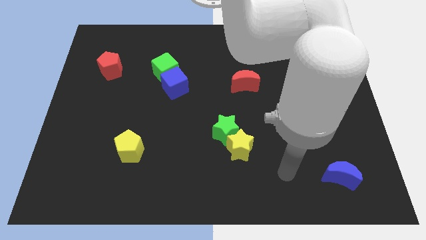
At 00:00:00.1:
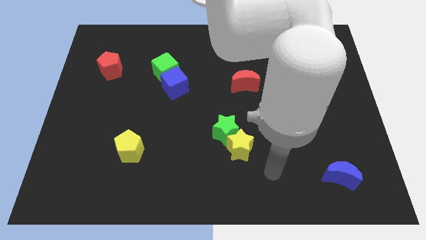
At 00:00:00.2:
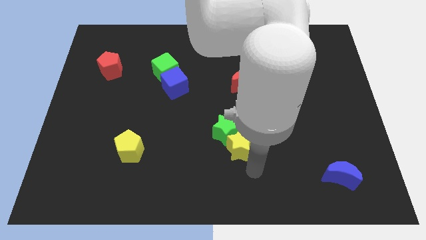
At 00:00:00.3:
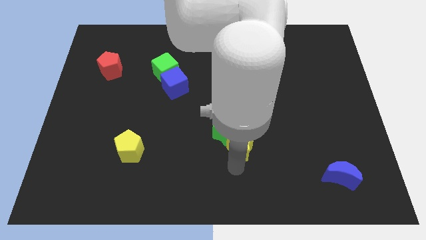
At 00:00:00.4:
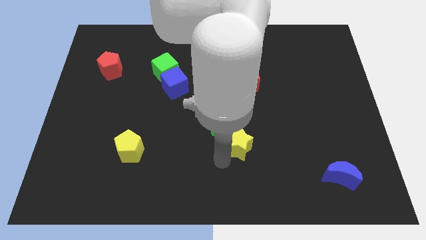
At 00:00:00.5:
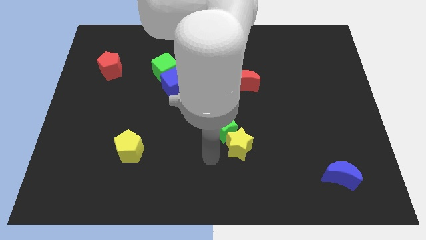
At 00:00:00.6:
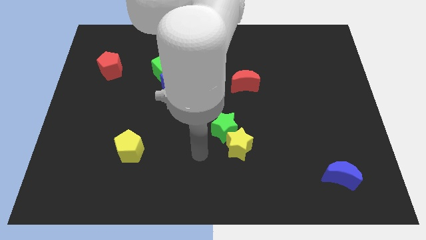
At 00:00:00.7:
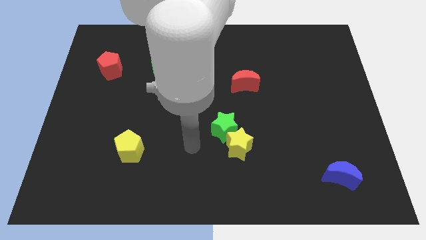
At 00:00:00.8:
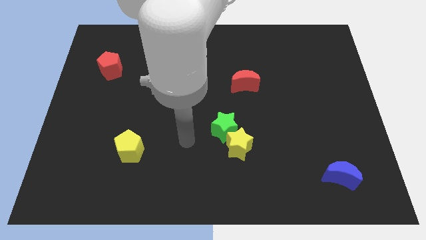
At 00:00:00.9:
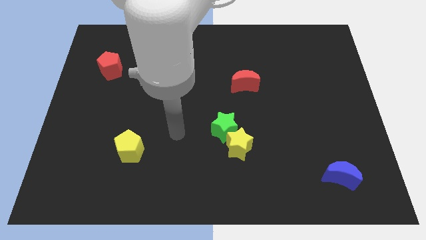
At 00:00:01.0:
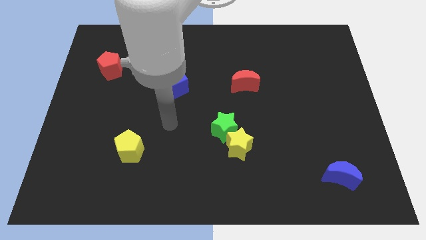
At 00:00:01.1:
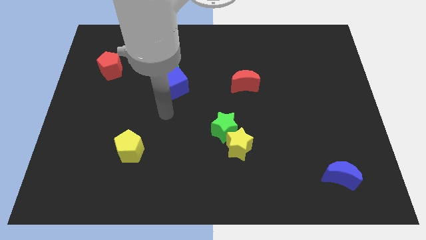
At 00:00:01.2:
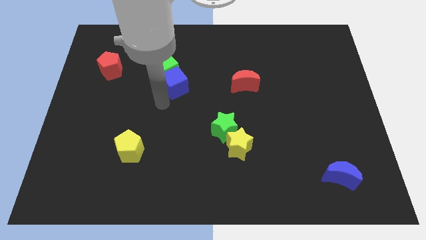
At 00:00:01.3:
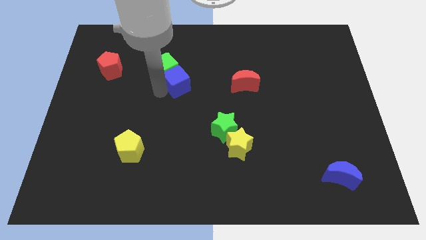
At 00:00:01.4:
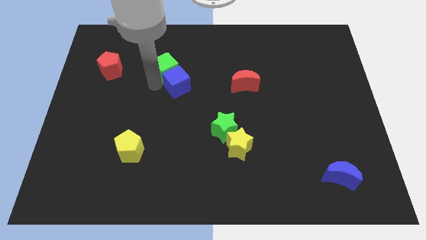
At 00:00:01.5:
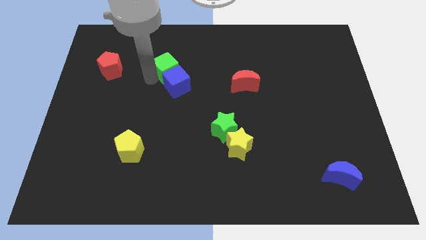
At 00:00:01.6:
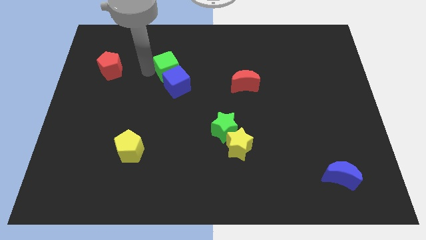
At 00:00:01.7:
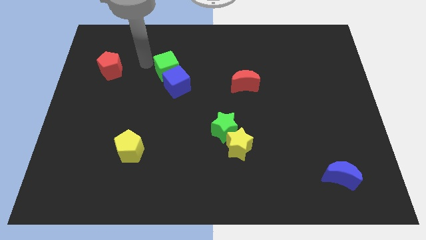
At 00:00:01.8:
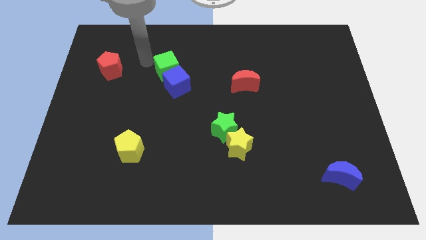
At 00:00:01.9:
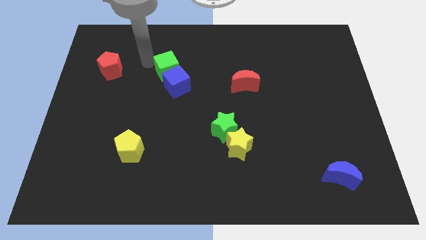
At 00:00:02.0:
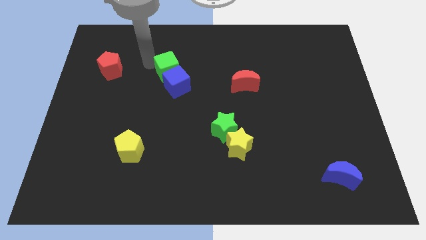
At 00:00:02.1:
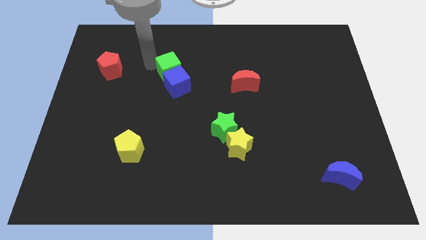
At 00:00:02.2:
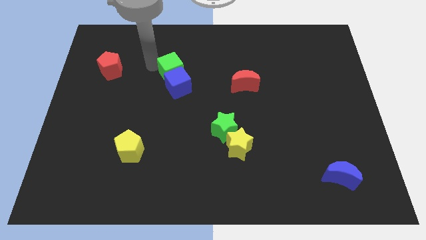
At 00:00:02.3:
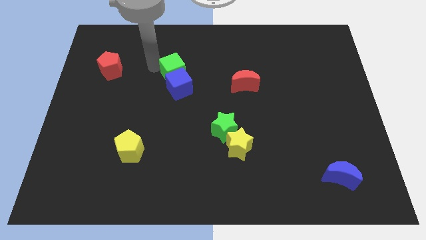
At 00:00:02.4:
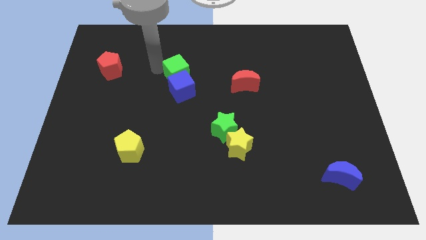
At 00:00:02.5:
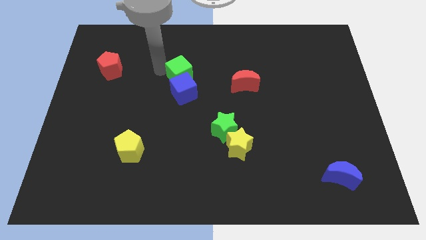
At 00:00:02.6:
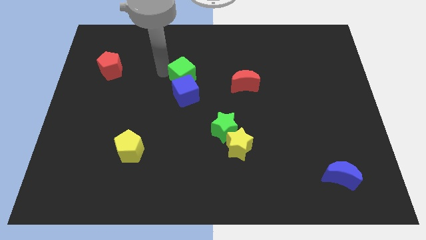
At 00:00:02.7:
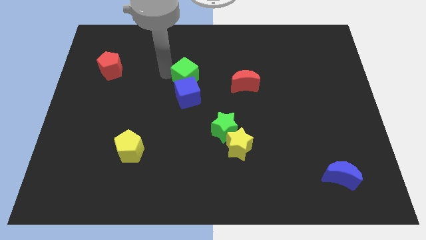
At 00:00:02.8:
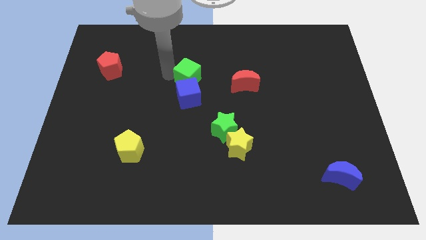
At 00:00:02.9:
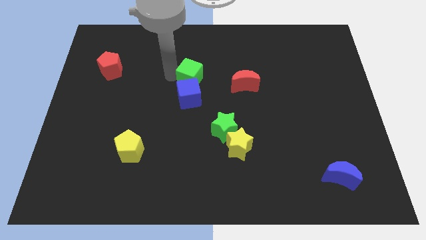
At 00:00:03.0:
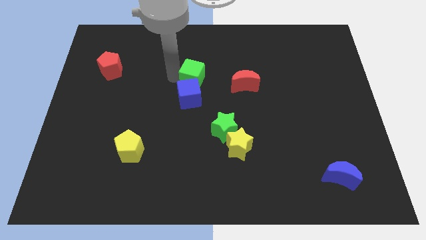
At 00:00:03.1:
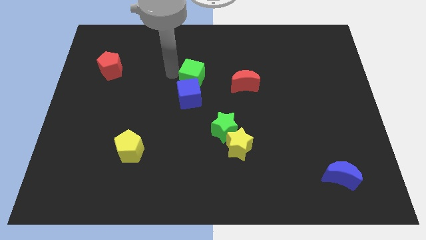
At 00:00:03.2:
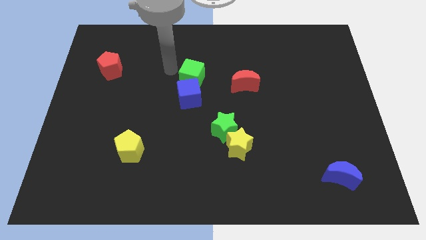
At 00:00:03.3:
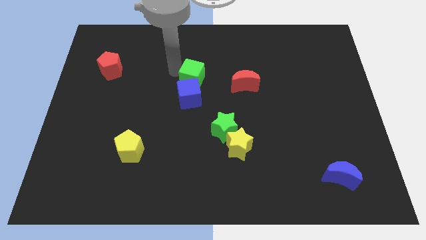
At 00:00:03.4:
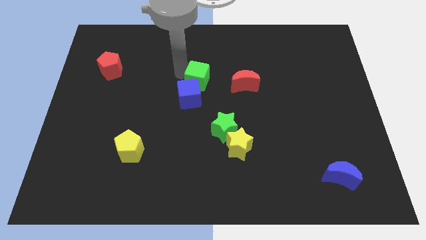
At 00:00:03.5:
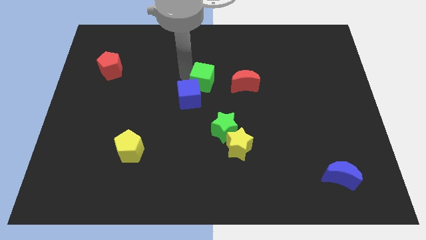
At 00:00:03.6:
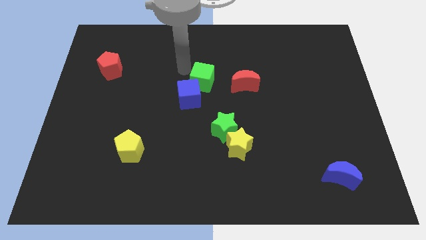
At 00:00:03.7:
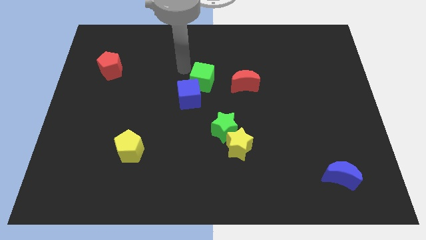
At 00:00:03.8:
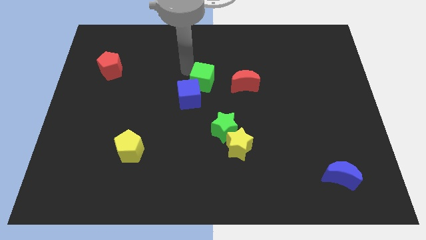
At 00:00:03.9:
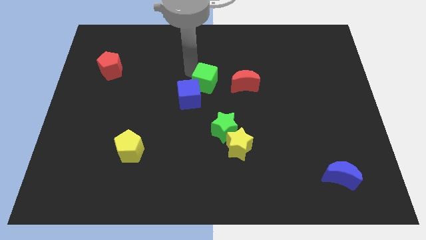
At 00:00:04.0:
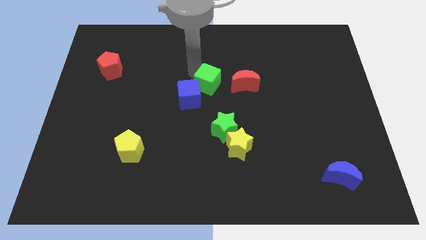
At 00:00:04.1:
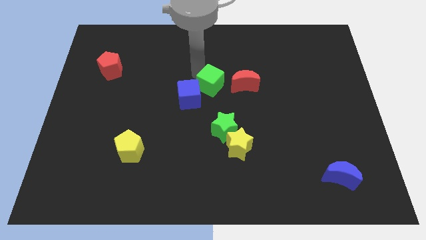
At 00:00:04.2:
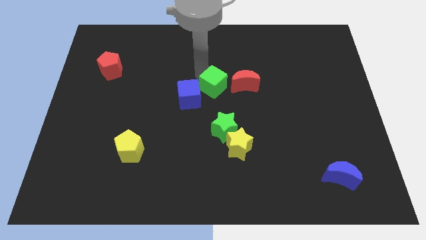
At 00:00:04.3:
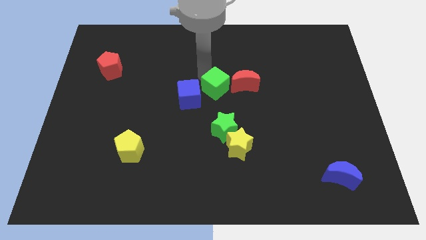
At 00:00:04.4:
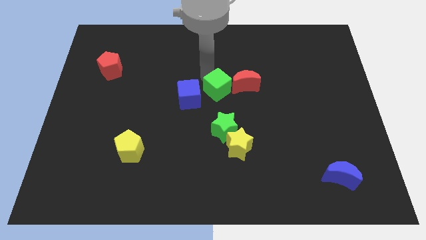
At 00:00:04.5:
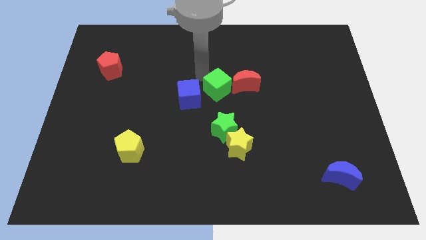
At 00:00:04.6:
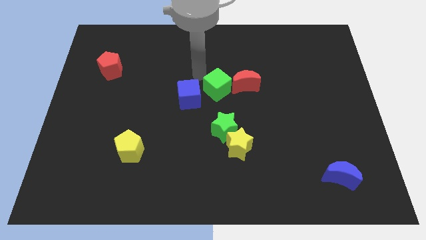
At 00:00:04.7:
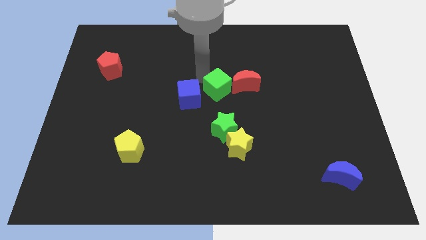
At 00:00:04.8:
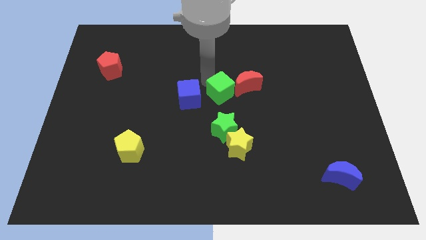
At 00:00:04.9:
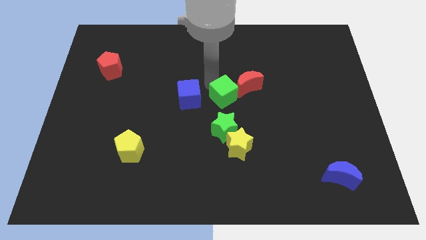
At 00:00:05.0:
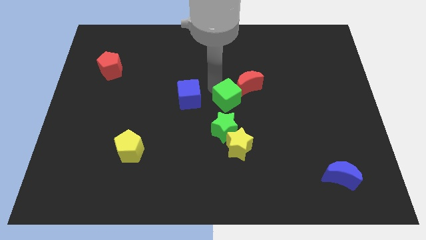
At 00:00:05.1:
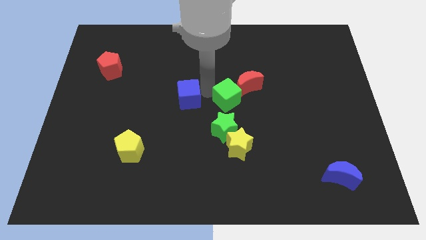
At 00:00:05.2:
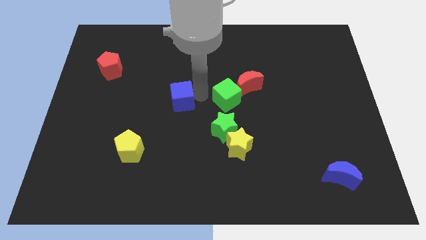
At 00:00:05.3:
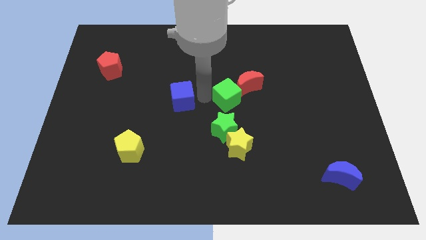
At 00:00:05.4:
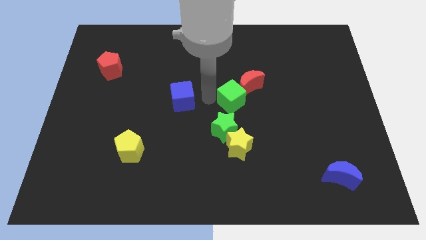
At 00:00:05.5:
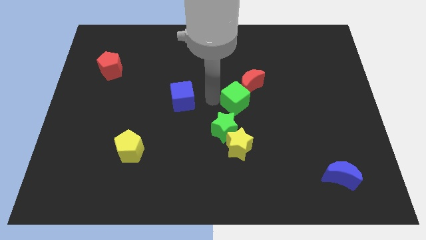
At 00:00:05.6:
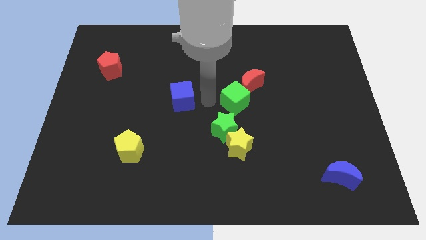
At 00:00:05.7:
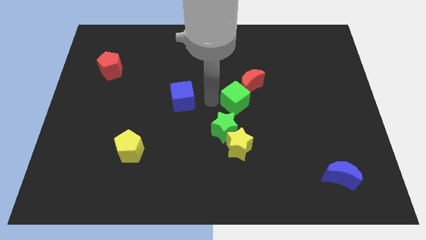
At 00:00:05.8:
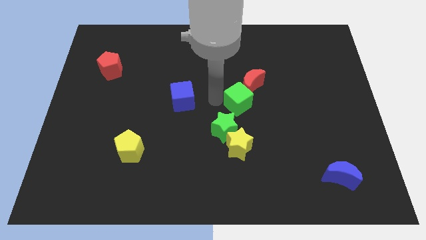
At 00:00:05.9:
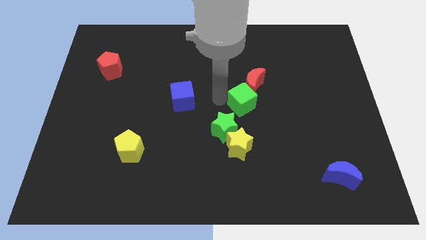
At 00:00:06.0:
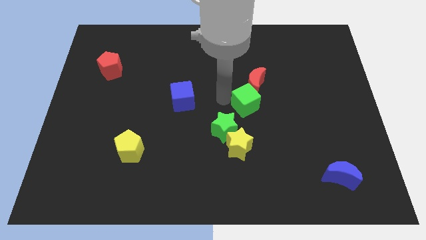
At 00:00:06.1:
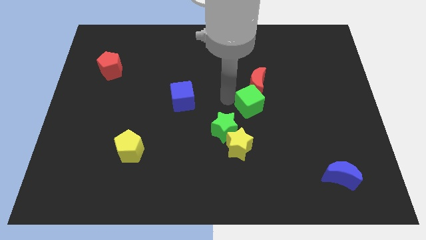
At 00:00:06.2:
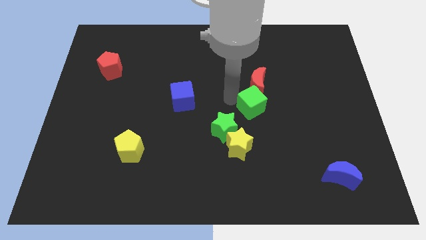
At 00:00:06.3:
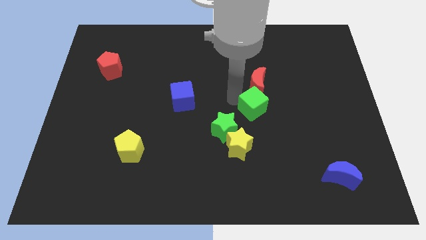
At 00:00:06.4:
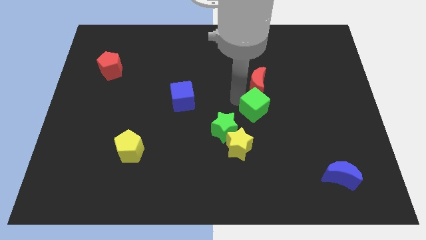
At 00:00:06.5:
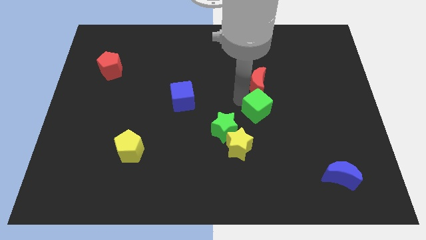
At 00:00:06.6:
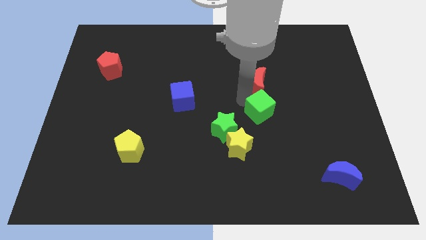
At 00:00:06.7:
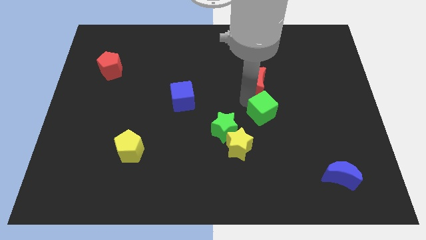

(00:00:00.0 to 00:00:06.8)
slide the green cube to the bottom right side of the red moon

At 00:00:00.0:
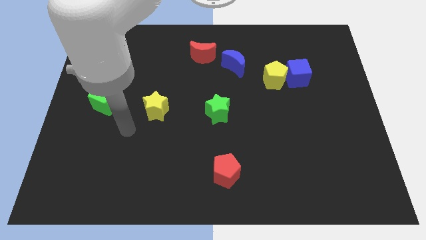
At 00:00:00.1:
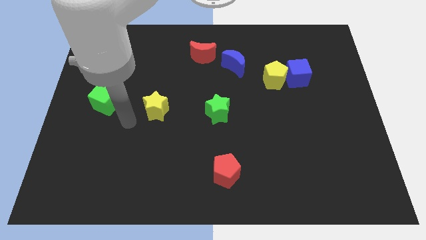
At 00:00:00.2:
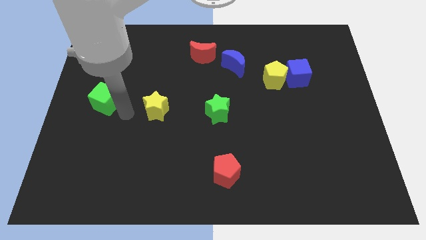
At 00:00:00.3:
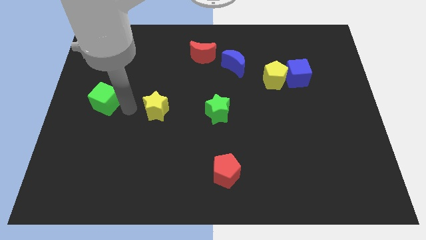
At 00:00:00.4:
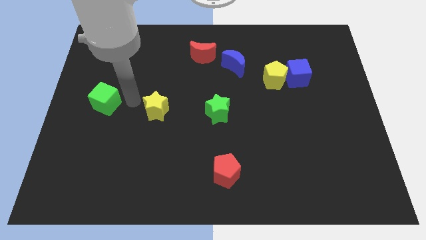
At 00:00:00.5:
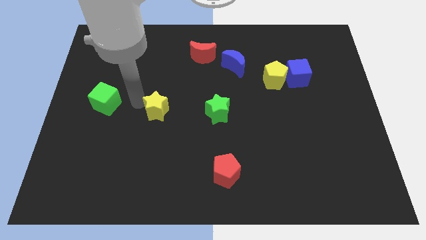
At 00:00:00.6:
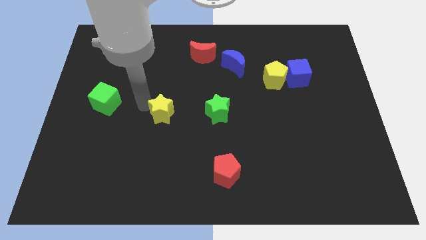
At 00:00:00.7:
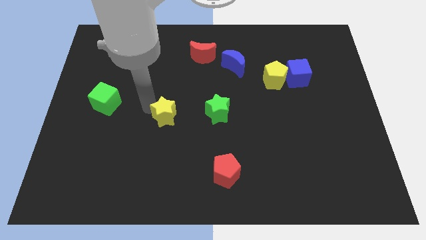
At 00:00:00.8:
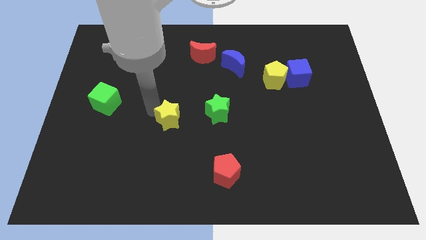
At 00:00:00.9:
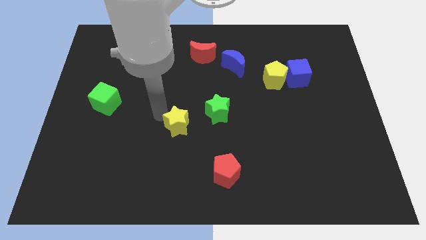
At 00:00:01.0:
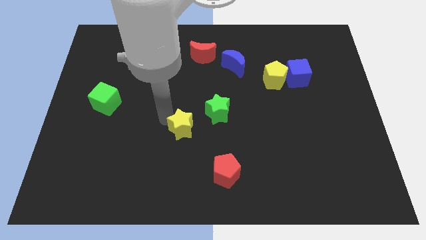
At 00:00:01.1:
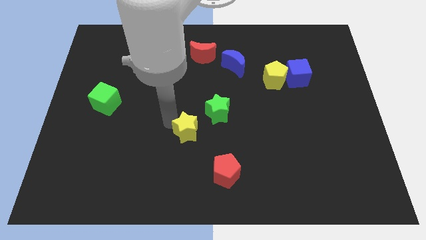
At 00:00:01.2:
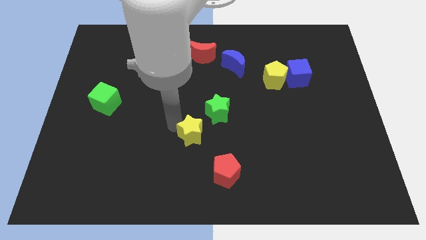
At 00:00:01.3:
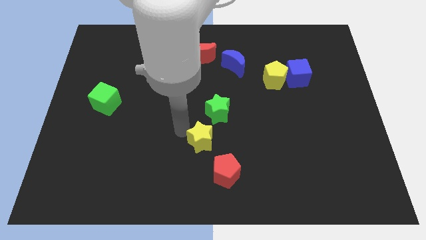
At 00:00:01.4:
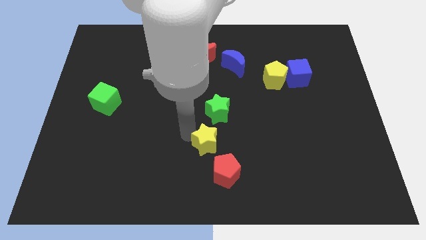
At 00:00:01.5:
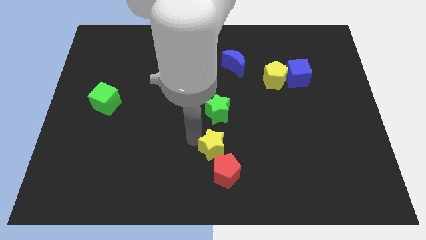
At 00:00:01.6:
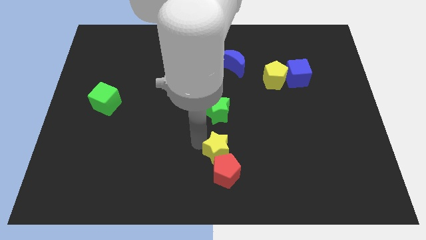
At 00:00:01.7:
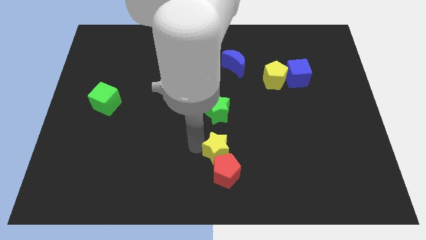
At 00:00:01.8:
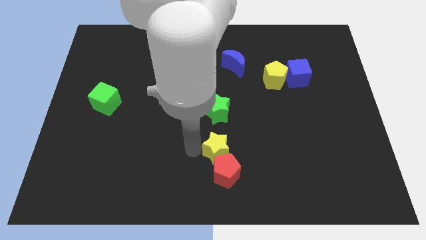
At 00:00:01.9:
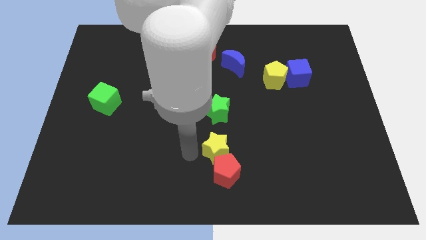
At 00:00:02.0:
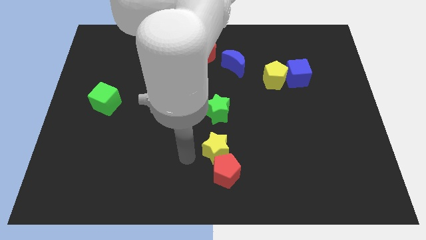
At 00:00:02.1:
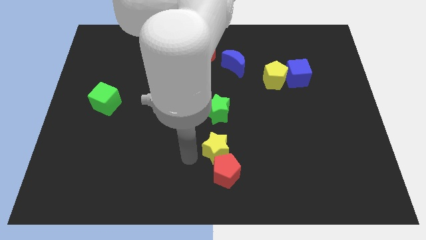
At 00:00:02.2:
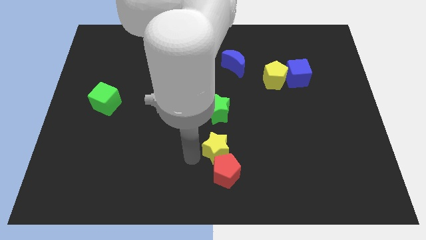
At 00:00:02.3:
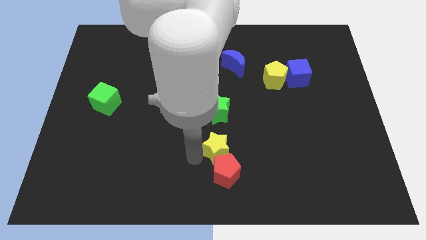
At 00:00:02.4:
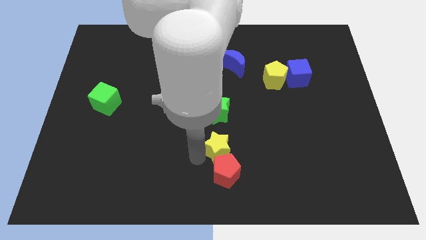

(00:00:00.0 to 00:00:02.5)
slide the yellow star to the top right side of the red pentagon
